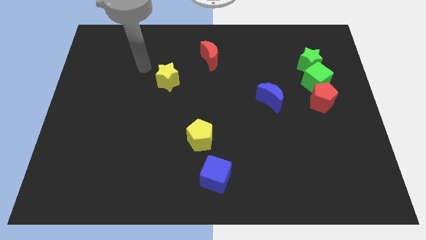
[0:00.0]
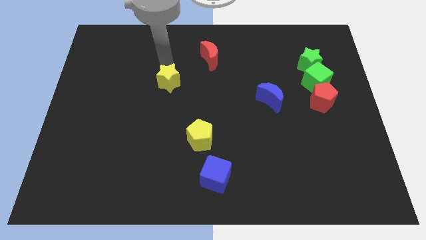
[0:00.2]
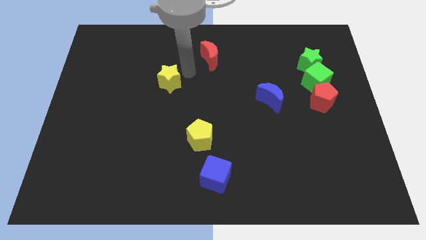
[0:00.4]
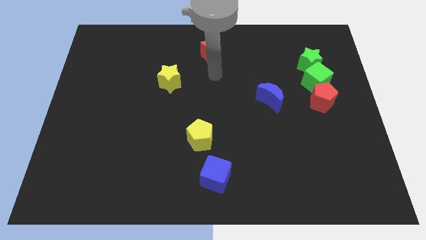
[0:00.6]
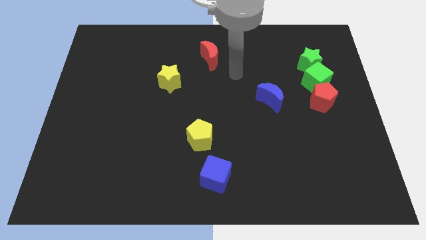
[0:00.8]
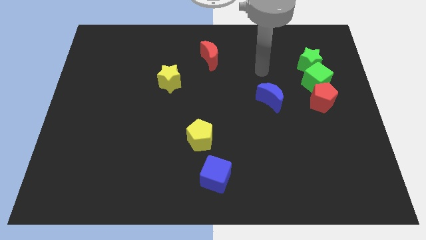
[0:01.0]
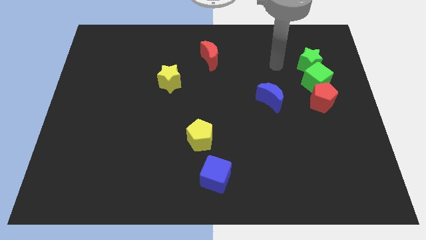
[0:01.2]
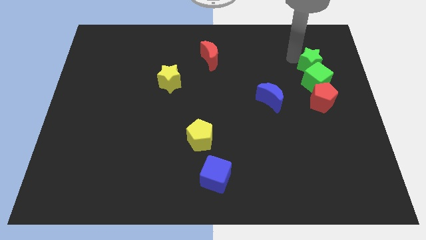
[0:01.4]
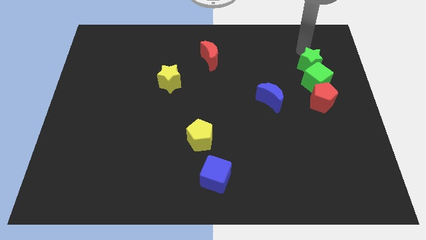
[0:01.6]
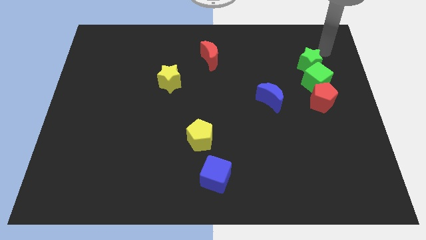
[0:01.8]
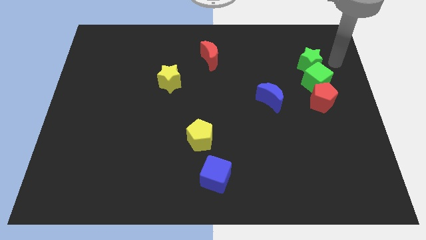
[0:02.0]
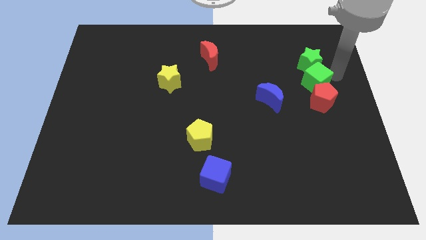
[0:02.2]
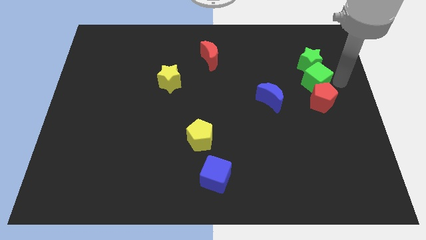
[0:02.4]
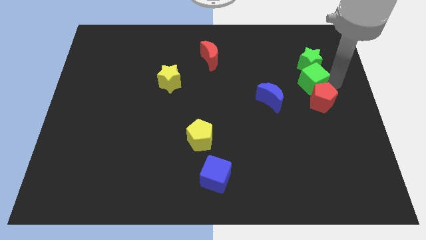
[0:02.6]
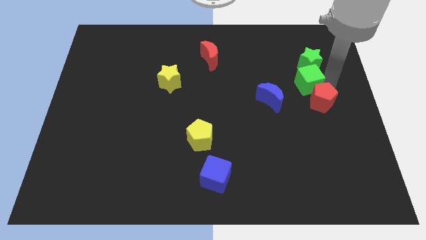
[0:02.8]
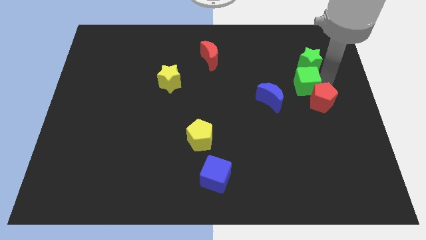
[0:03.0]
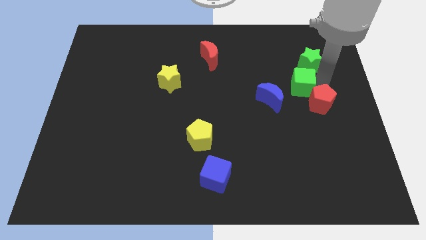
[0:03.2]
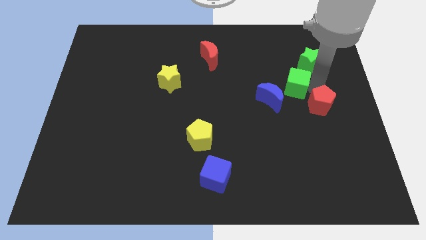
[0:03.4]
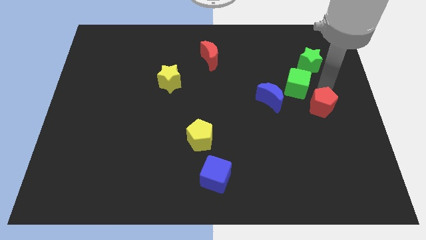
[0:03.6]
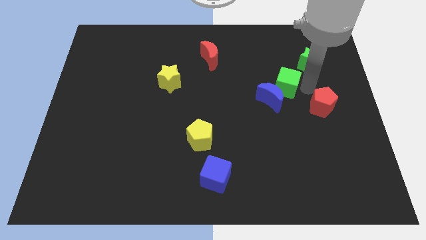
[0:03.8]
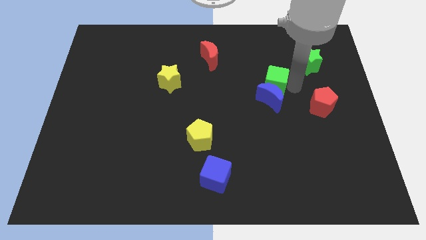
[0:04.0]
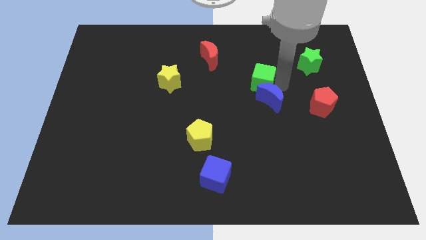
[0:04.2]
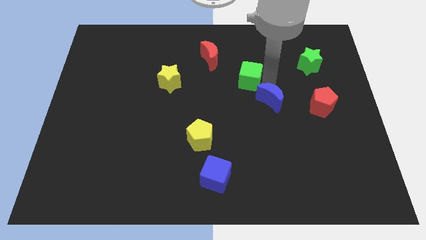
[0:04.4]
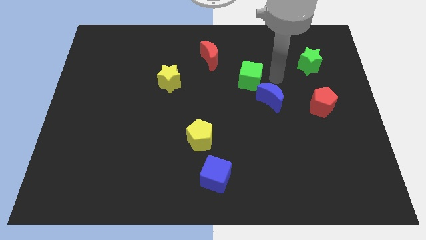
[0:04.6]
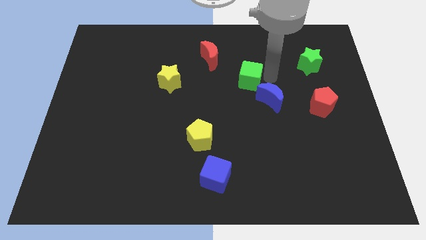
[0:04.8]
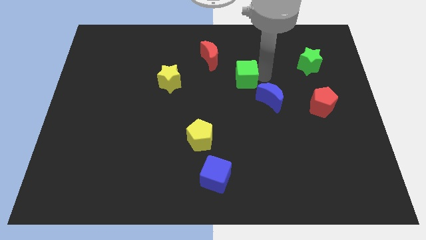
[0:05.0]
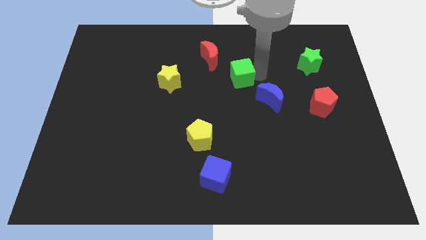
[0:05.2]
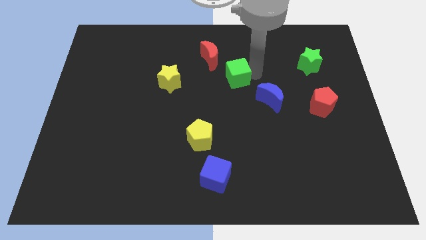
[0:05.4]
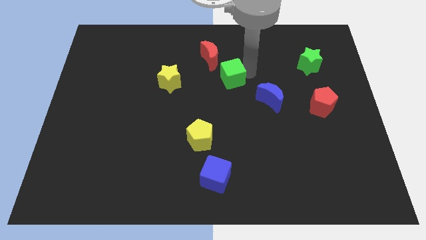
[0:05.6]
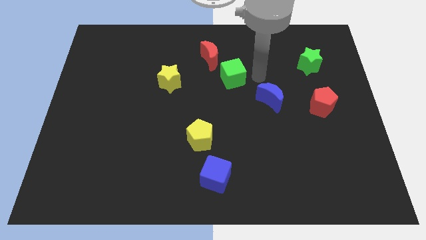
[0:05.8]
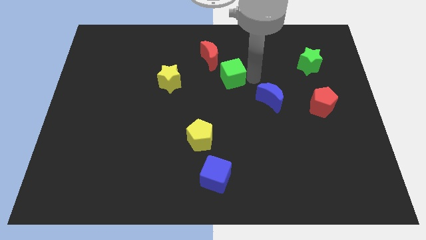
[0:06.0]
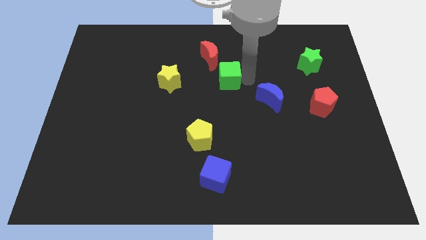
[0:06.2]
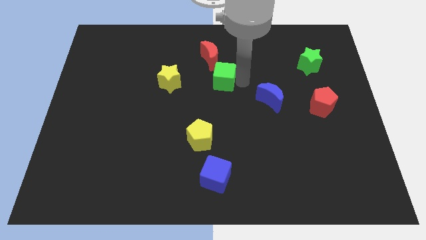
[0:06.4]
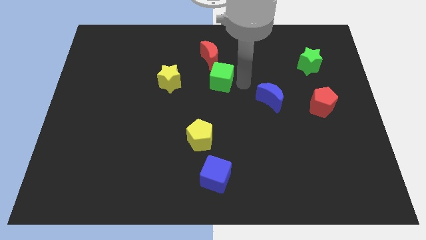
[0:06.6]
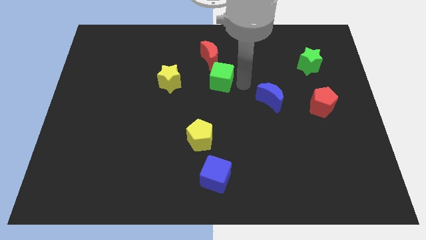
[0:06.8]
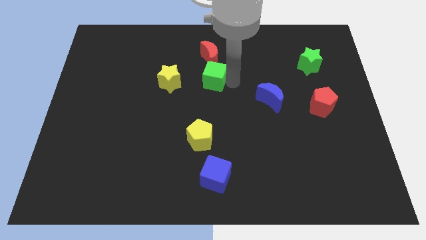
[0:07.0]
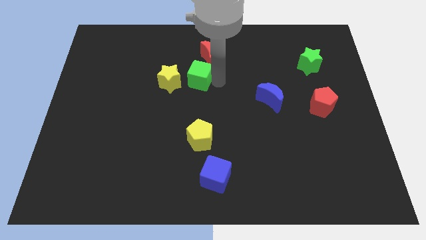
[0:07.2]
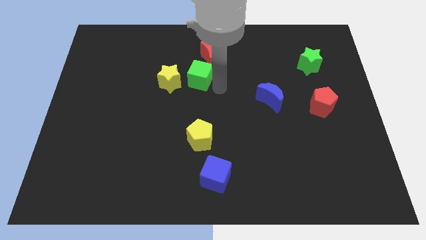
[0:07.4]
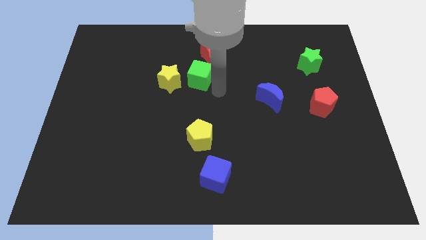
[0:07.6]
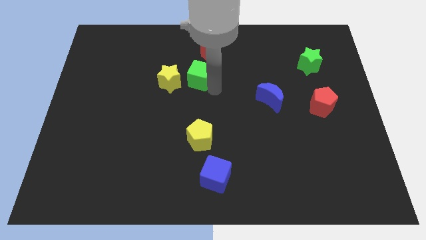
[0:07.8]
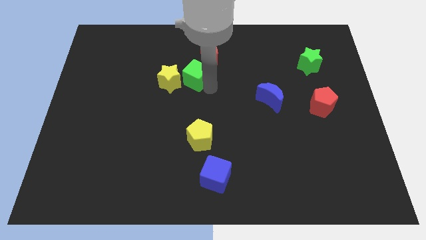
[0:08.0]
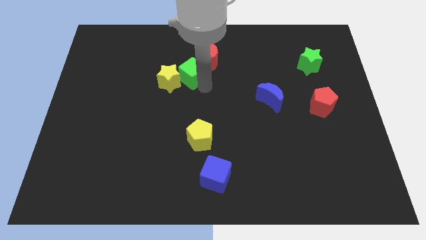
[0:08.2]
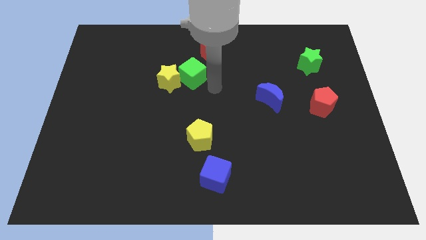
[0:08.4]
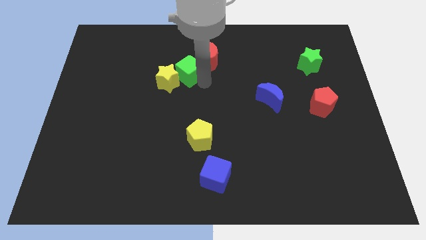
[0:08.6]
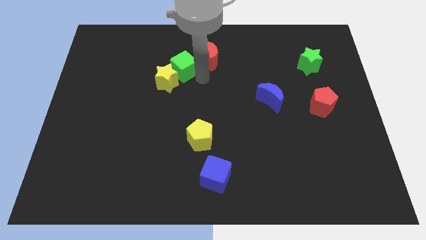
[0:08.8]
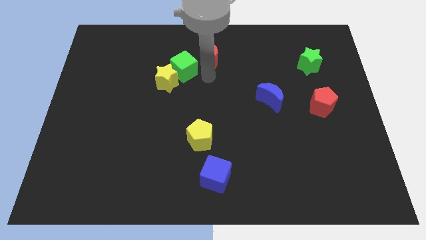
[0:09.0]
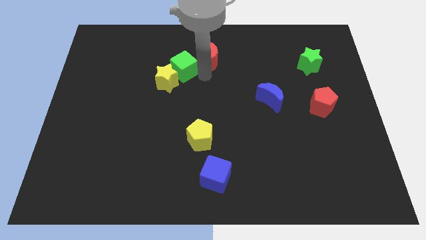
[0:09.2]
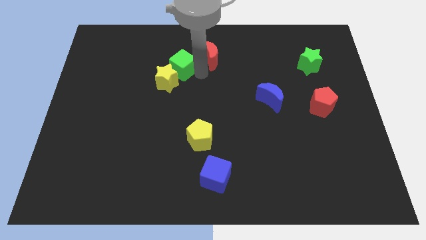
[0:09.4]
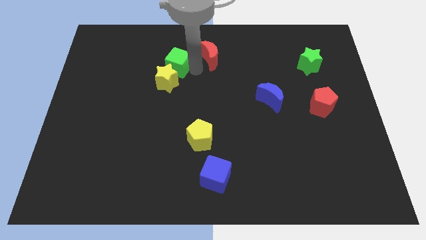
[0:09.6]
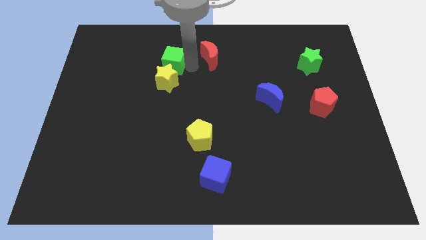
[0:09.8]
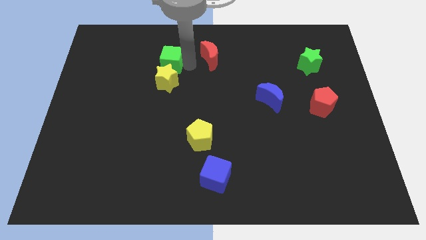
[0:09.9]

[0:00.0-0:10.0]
move the green cube to the top left side of the yellow star

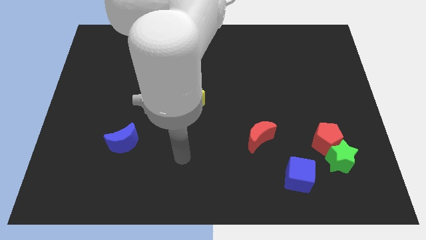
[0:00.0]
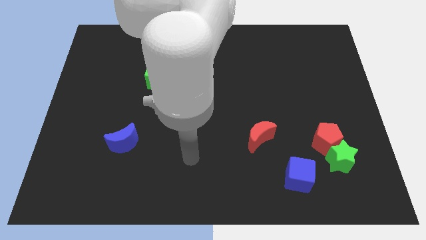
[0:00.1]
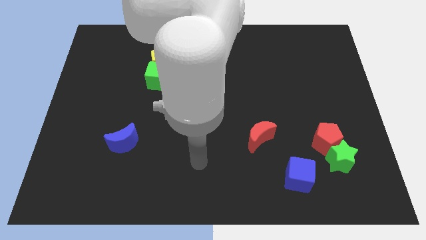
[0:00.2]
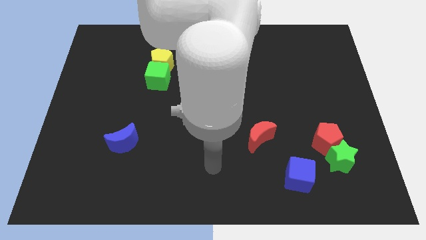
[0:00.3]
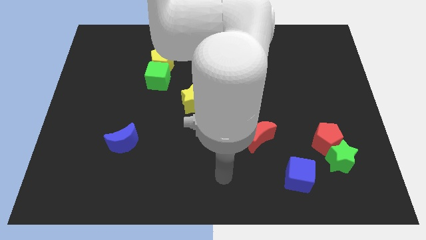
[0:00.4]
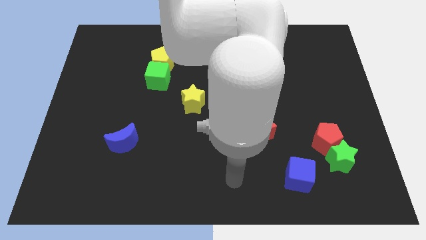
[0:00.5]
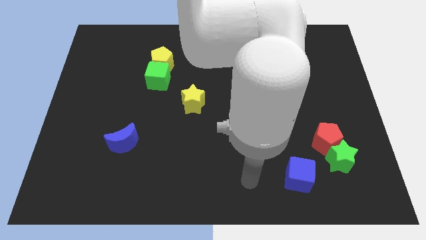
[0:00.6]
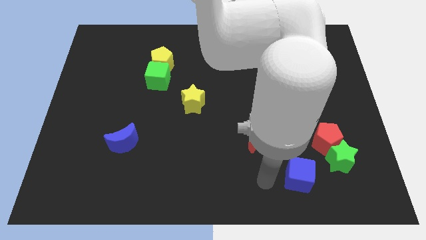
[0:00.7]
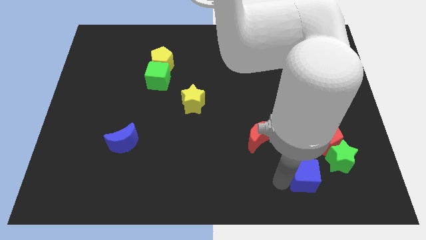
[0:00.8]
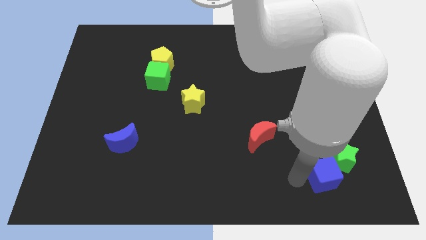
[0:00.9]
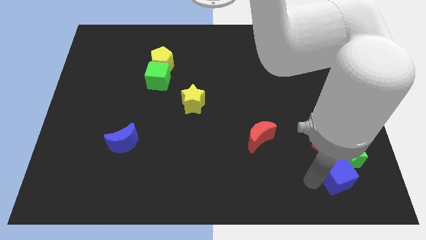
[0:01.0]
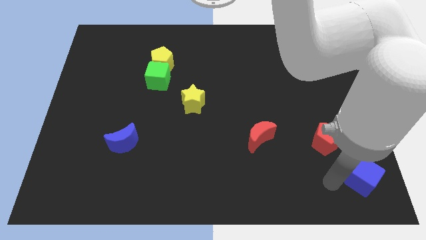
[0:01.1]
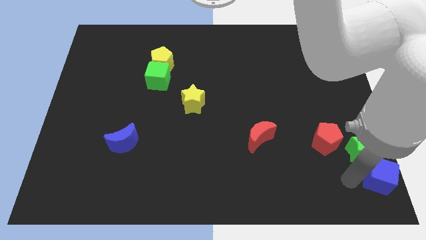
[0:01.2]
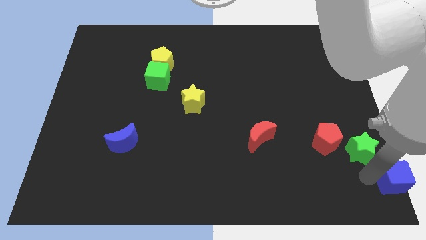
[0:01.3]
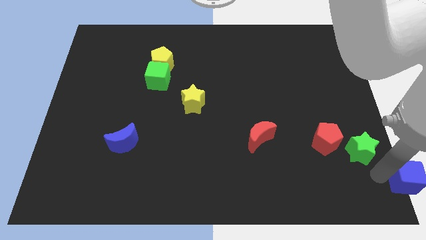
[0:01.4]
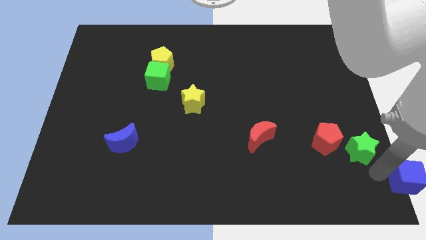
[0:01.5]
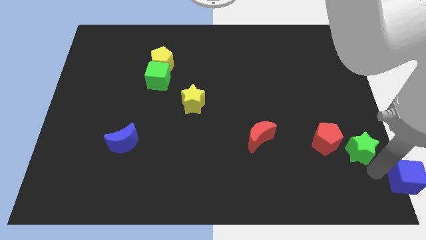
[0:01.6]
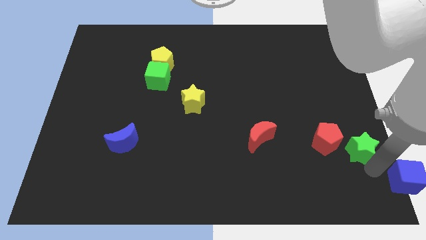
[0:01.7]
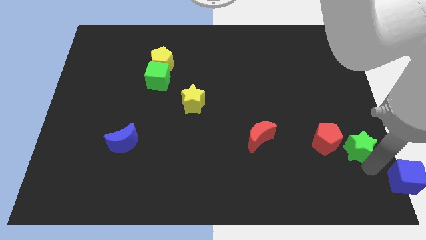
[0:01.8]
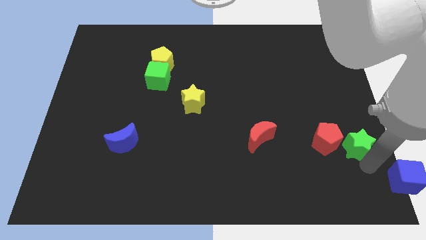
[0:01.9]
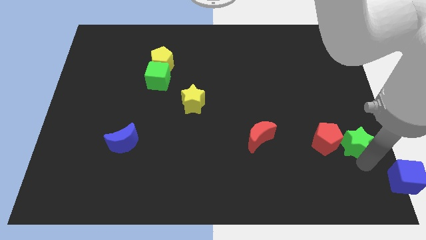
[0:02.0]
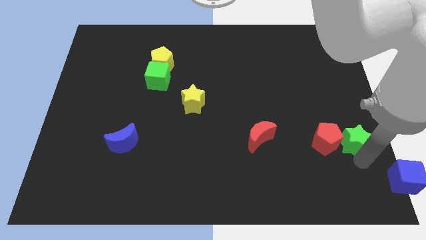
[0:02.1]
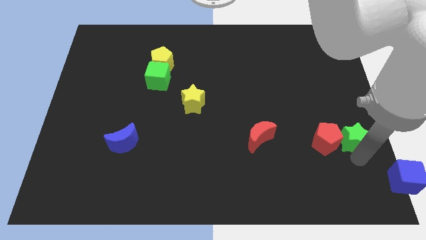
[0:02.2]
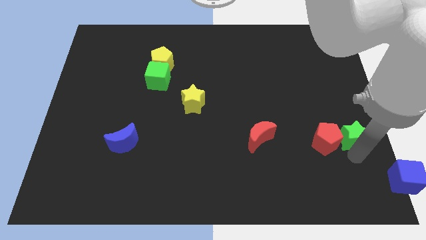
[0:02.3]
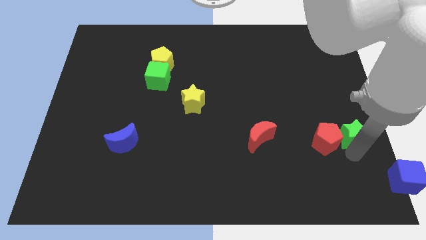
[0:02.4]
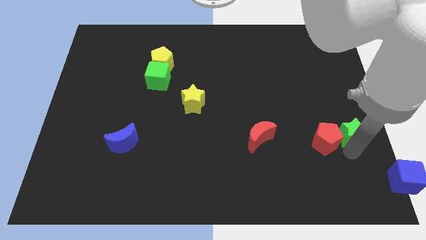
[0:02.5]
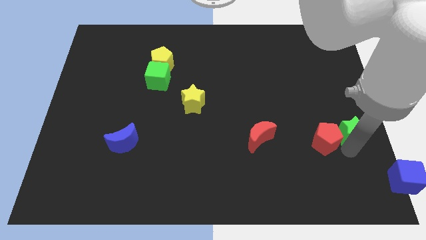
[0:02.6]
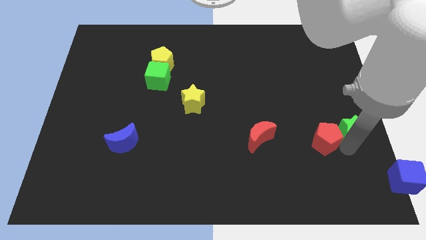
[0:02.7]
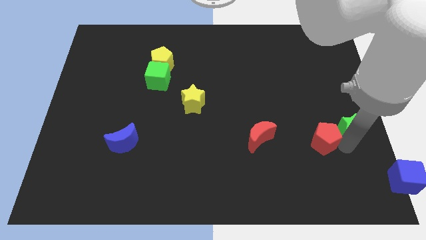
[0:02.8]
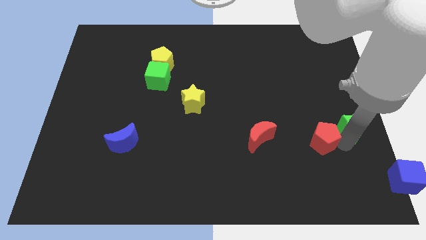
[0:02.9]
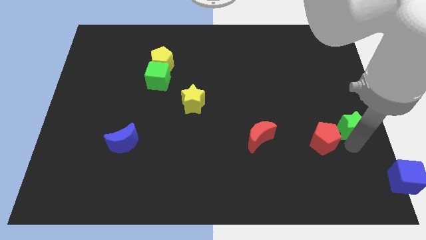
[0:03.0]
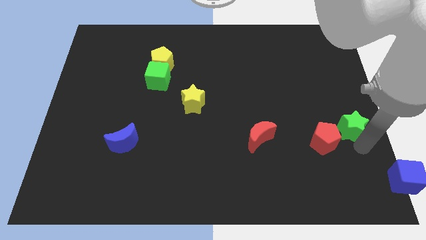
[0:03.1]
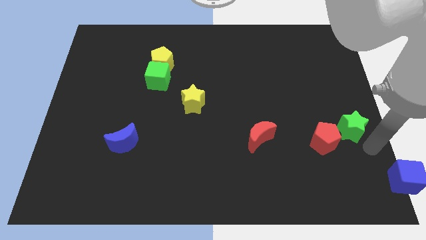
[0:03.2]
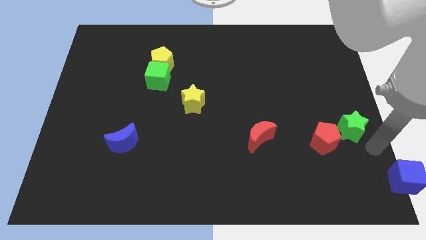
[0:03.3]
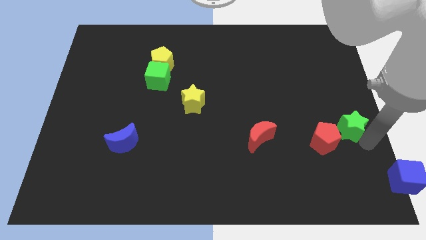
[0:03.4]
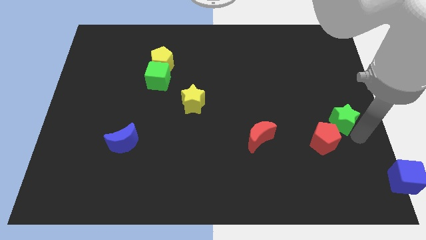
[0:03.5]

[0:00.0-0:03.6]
put the green star to the top side of the red pentagon
